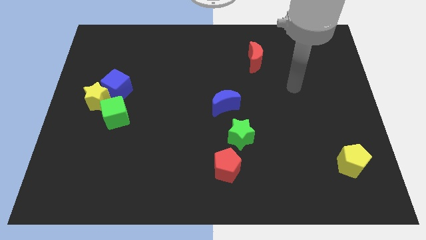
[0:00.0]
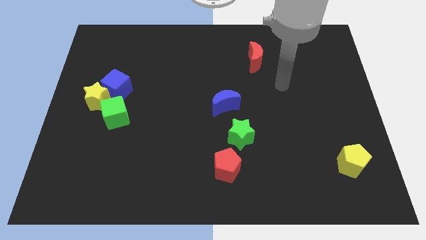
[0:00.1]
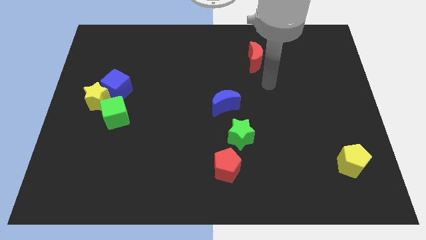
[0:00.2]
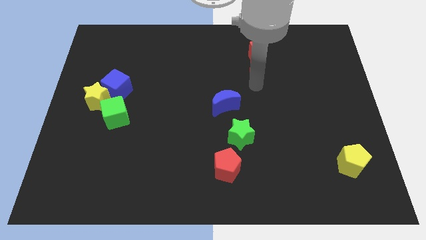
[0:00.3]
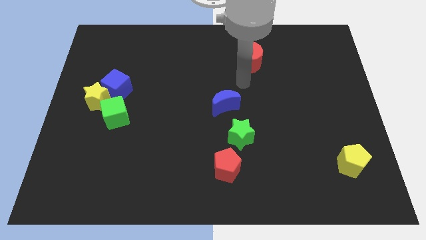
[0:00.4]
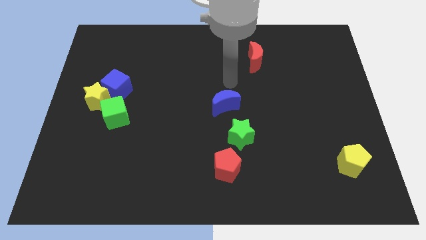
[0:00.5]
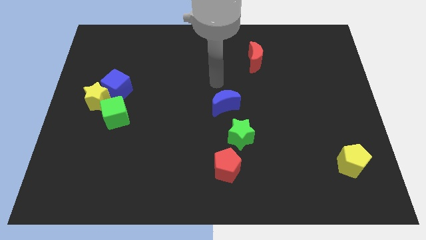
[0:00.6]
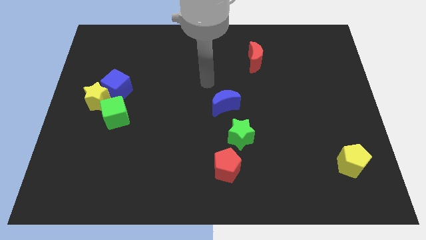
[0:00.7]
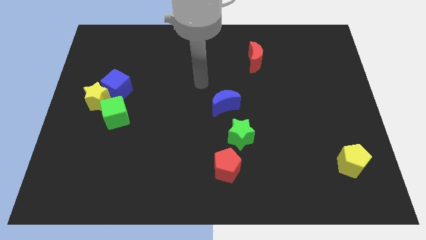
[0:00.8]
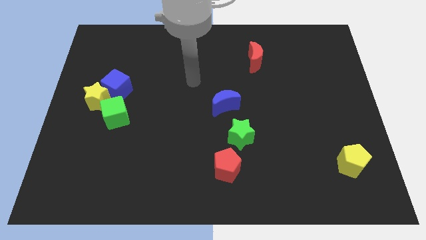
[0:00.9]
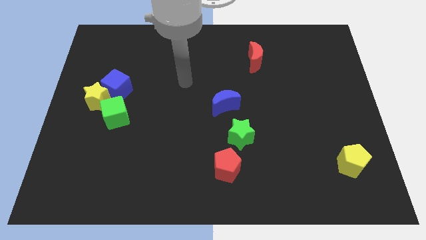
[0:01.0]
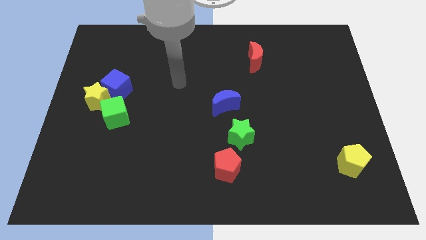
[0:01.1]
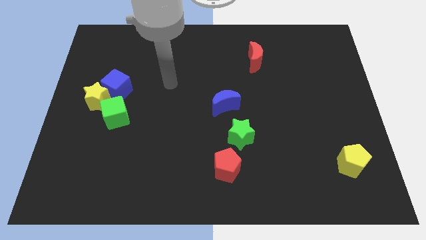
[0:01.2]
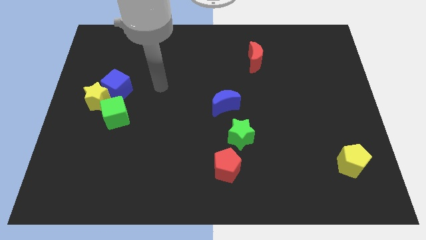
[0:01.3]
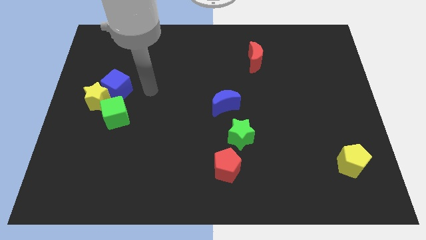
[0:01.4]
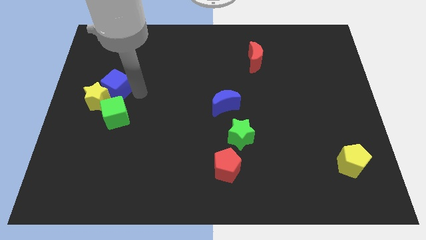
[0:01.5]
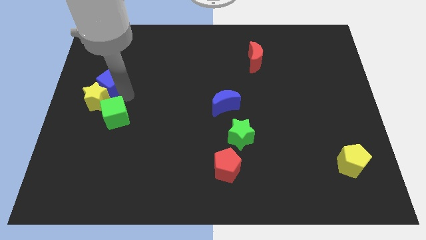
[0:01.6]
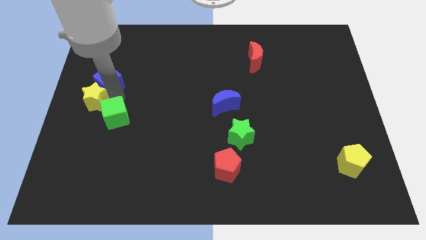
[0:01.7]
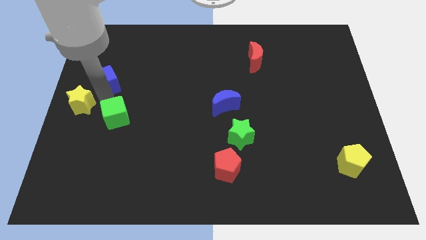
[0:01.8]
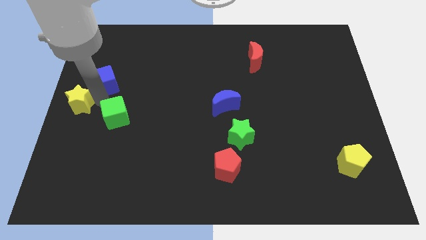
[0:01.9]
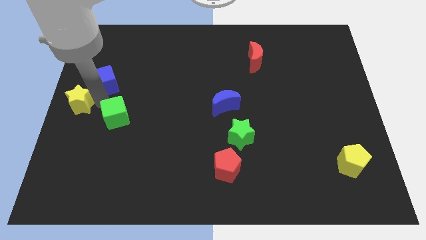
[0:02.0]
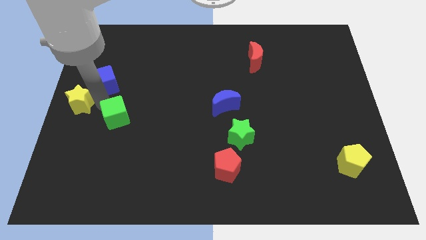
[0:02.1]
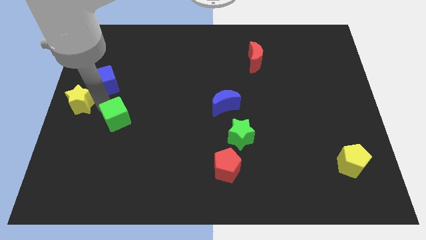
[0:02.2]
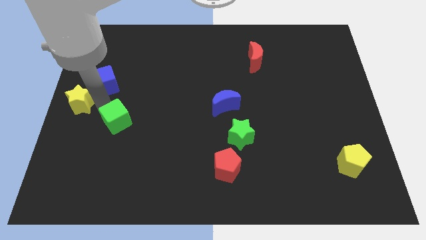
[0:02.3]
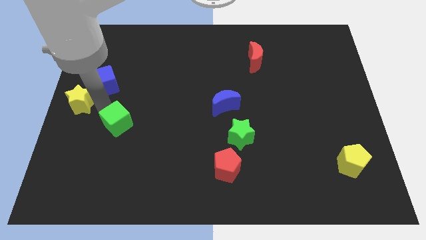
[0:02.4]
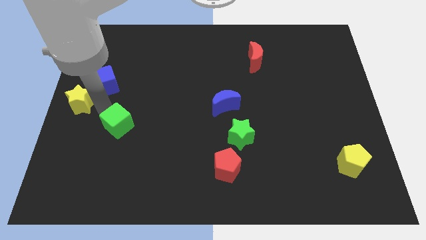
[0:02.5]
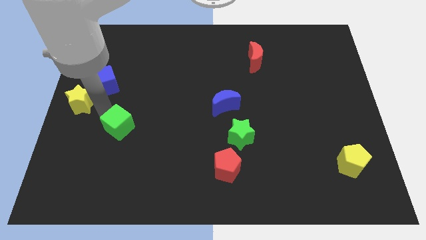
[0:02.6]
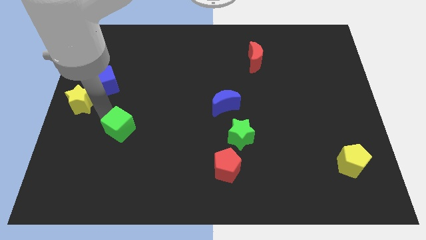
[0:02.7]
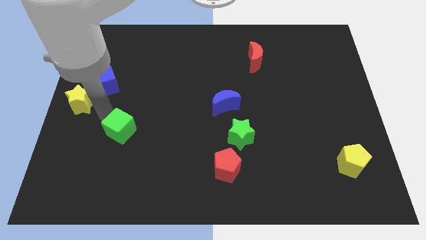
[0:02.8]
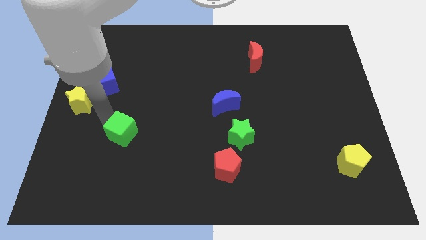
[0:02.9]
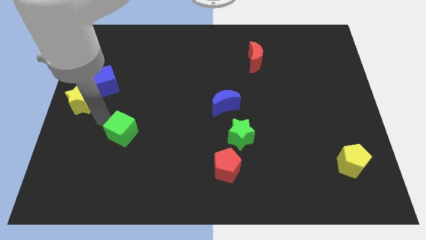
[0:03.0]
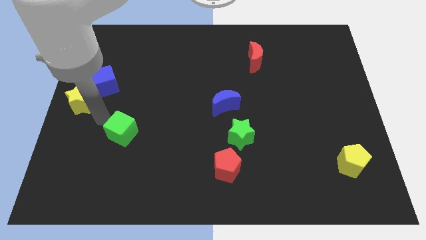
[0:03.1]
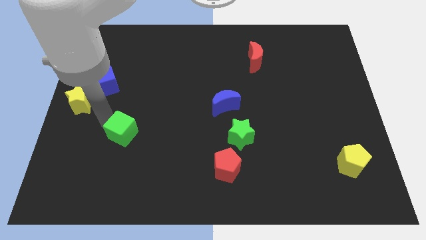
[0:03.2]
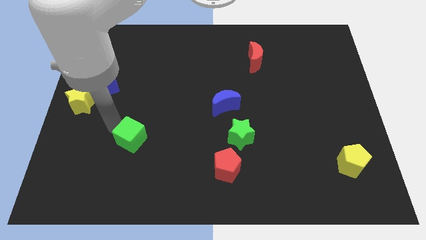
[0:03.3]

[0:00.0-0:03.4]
move the green cube down and then to the right somewhat

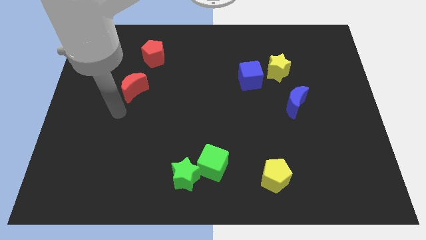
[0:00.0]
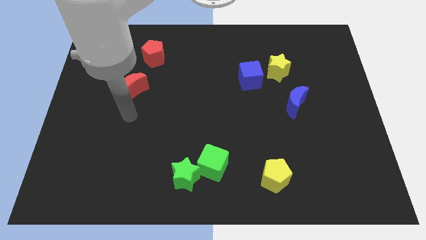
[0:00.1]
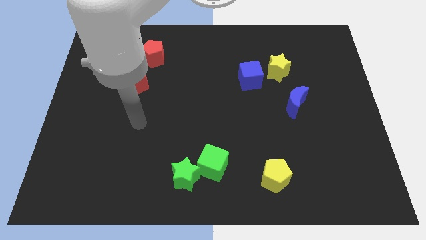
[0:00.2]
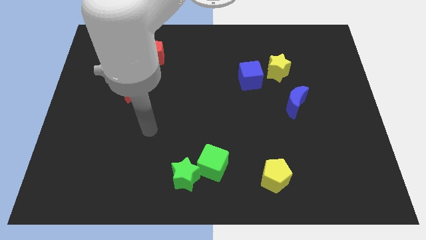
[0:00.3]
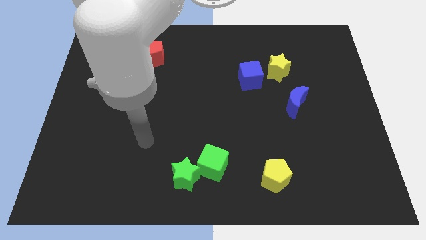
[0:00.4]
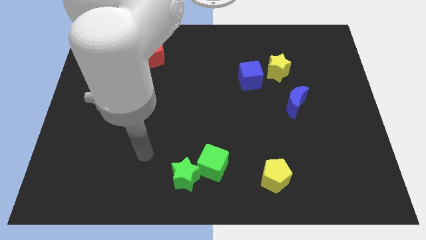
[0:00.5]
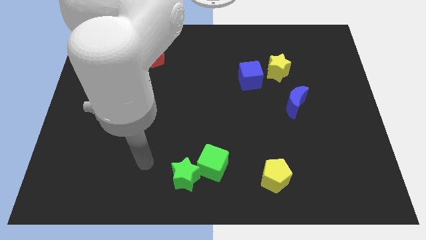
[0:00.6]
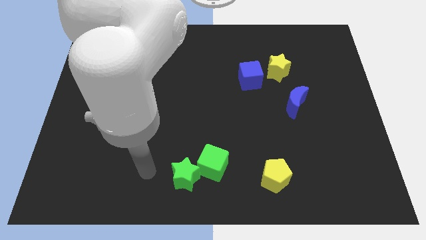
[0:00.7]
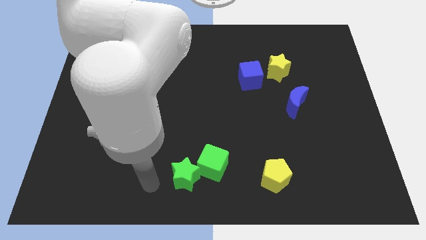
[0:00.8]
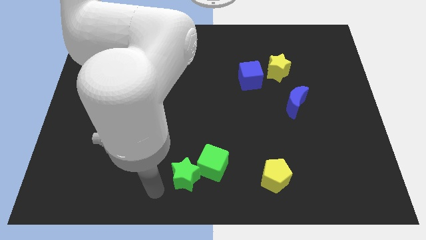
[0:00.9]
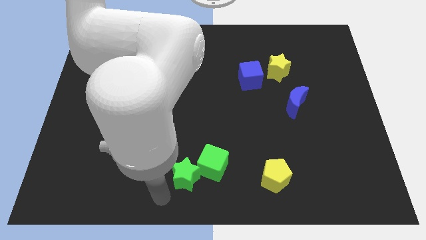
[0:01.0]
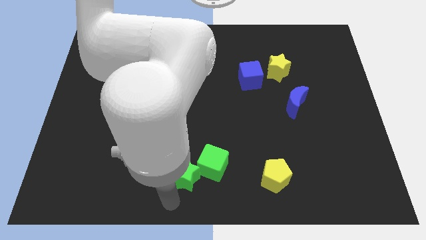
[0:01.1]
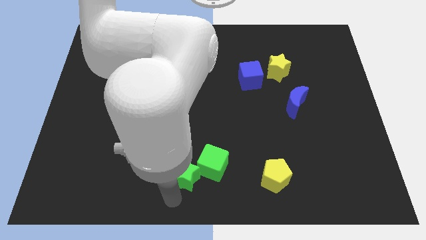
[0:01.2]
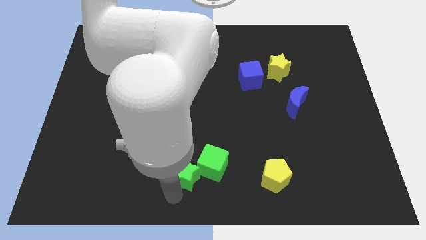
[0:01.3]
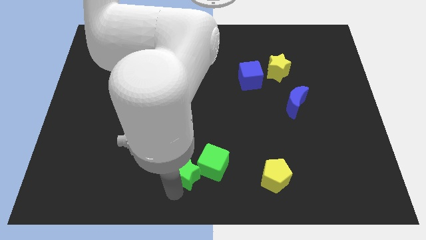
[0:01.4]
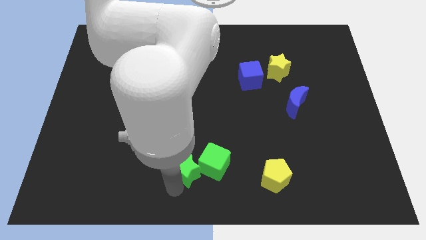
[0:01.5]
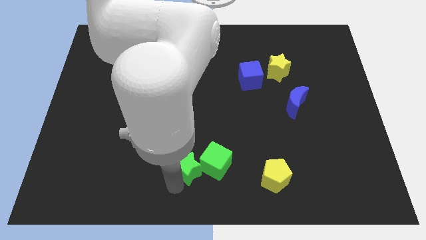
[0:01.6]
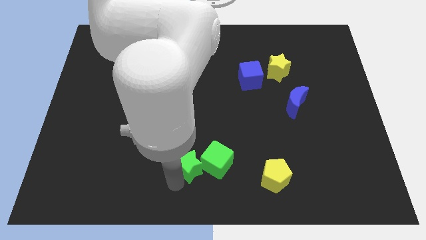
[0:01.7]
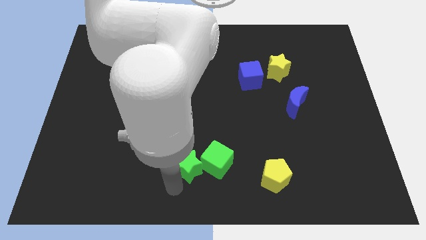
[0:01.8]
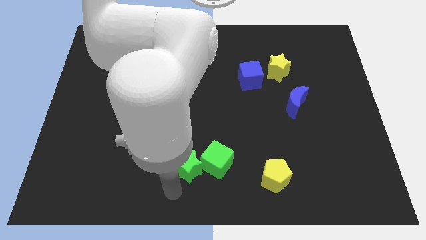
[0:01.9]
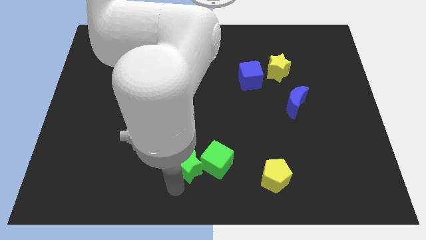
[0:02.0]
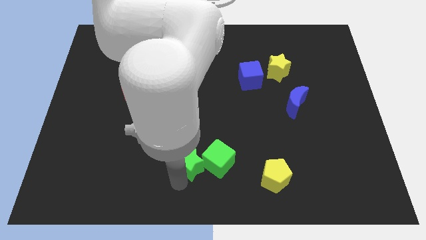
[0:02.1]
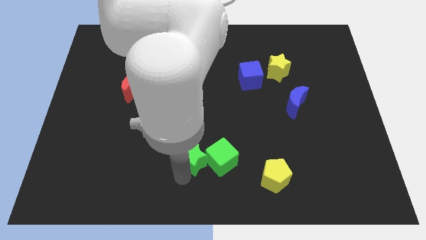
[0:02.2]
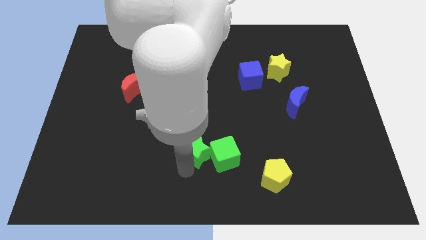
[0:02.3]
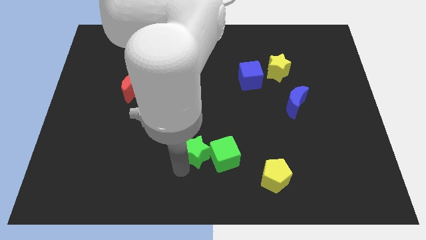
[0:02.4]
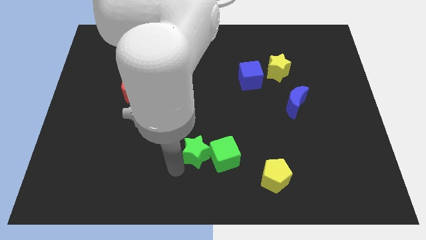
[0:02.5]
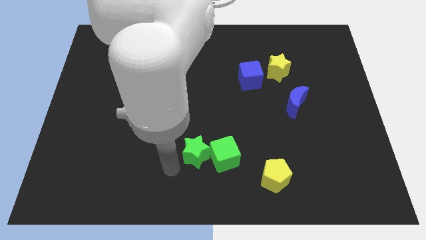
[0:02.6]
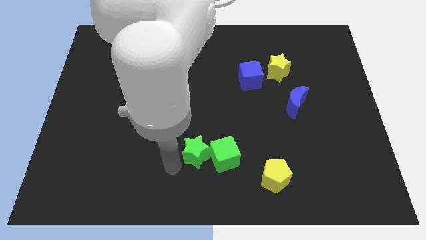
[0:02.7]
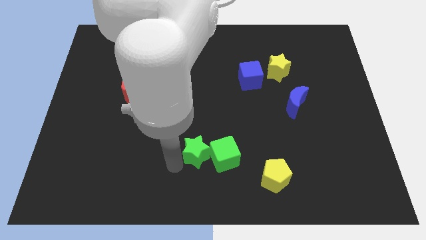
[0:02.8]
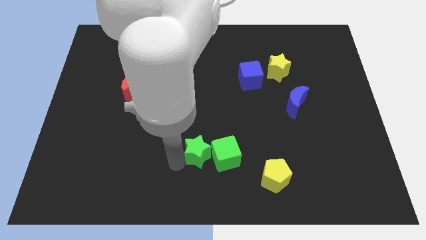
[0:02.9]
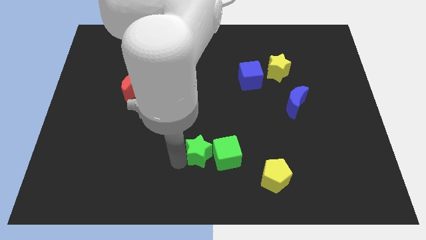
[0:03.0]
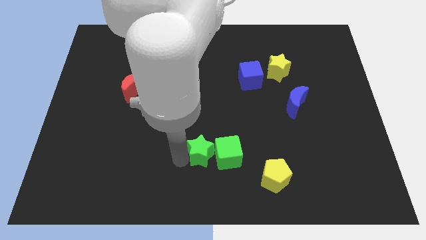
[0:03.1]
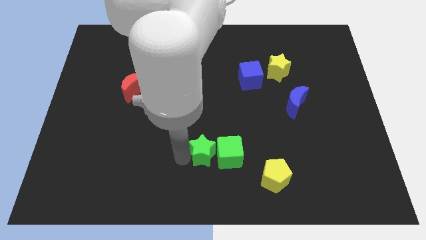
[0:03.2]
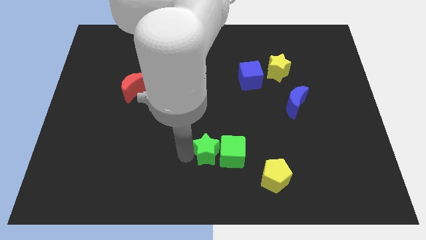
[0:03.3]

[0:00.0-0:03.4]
slide the green star diagonally upwards and to the right a little

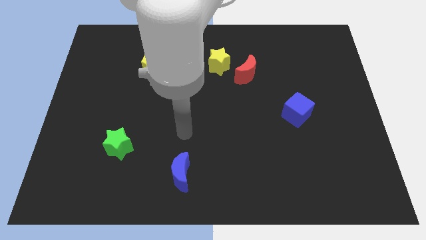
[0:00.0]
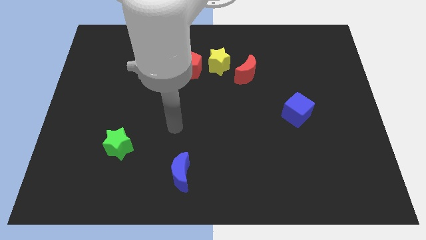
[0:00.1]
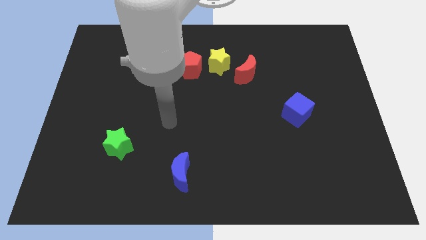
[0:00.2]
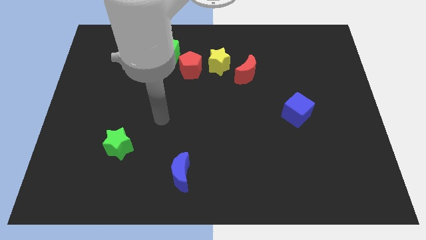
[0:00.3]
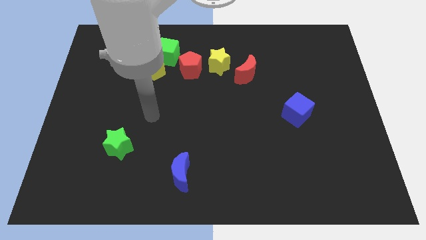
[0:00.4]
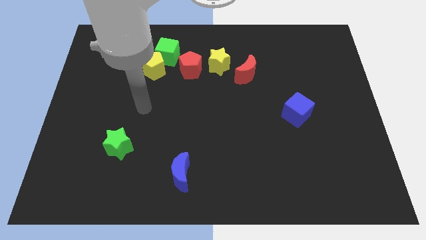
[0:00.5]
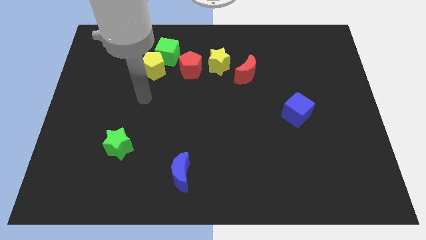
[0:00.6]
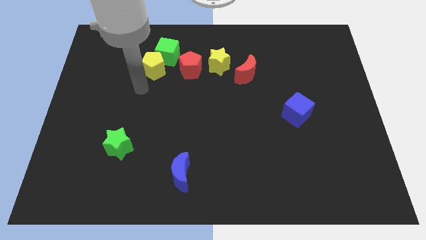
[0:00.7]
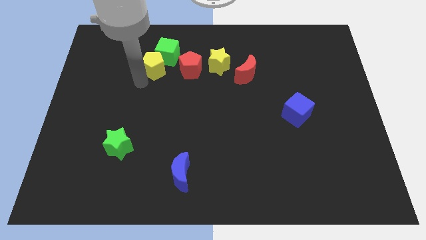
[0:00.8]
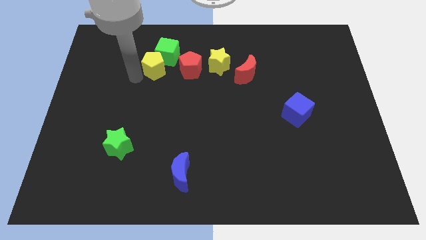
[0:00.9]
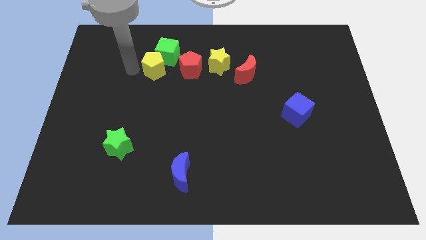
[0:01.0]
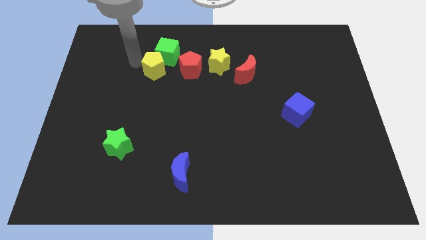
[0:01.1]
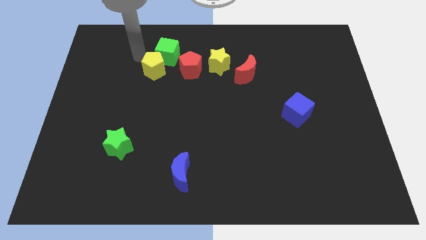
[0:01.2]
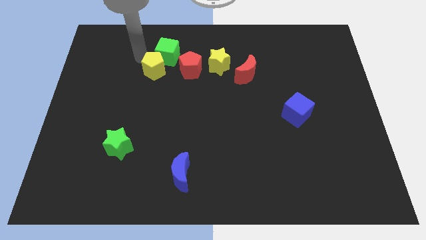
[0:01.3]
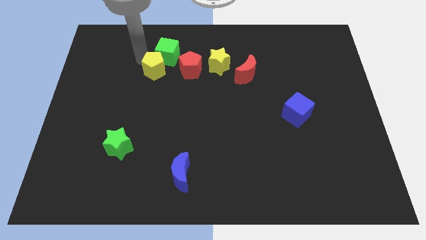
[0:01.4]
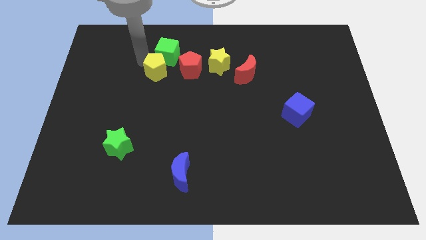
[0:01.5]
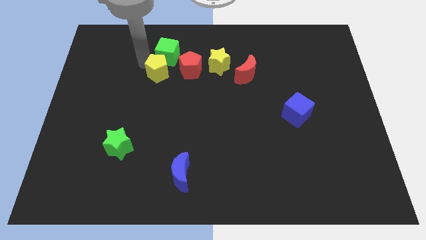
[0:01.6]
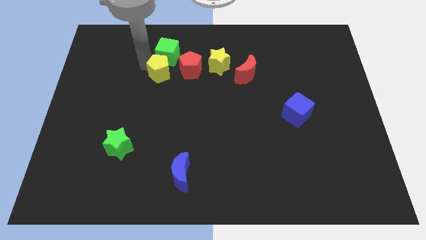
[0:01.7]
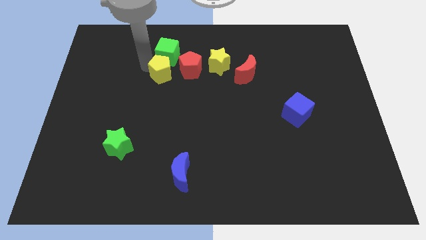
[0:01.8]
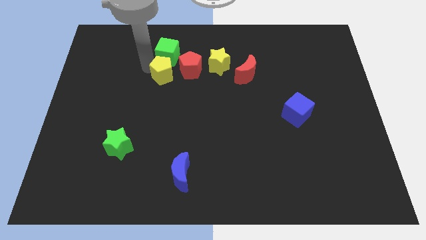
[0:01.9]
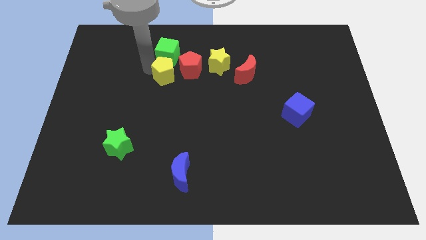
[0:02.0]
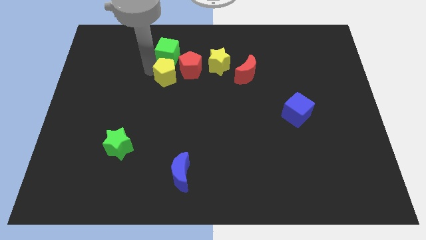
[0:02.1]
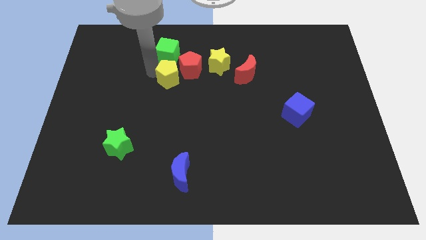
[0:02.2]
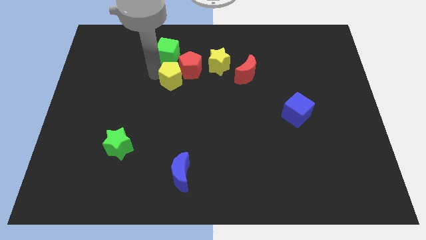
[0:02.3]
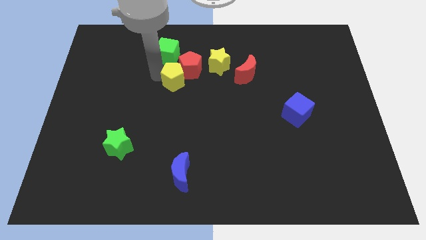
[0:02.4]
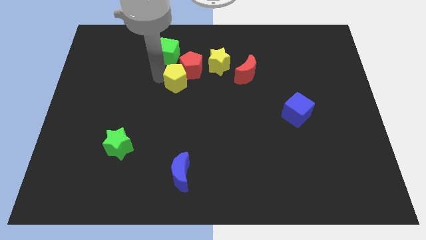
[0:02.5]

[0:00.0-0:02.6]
move the yellow pentagon down and right diagonally slightly
